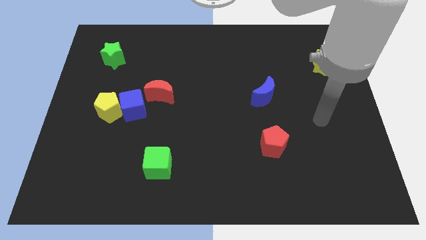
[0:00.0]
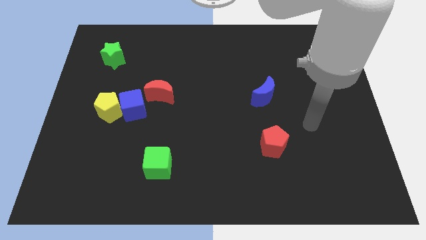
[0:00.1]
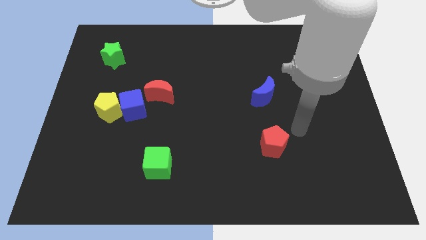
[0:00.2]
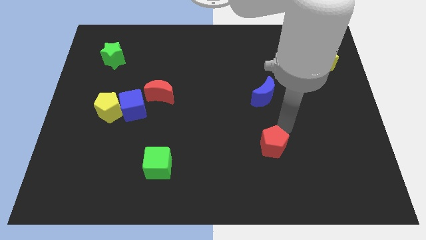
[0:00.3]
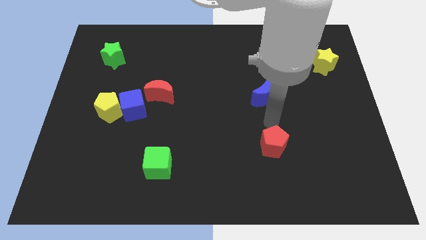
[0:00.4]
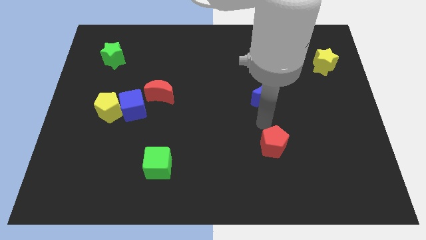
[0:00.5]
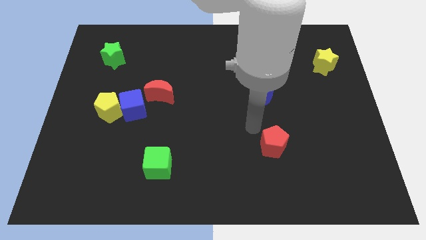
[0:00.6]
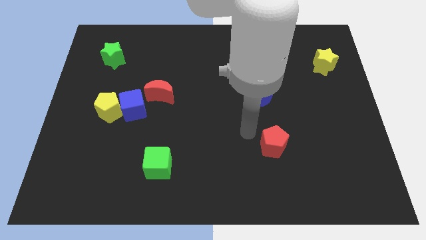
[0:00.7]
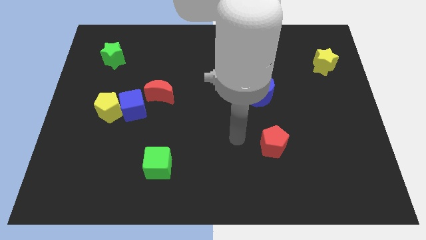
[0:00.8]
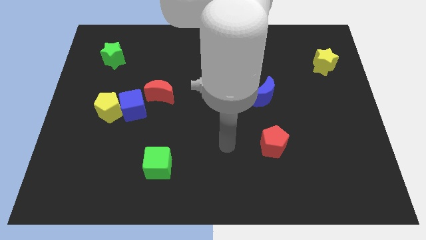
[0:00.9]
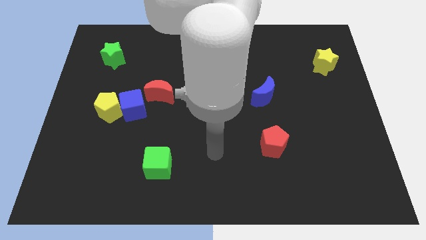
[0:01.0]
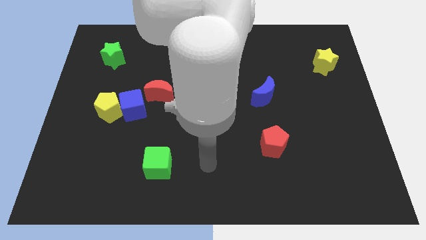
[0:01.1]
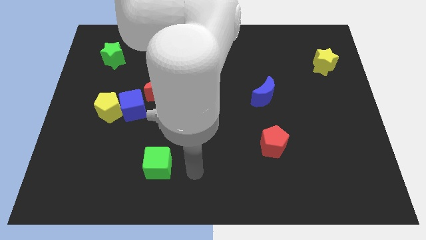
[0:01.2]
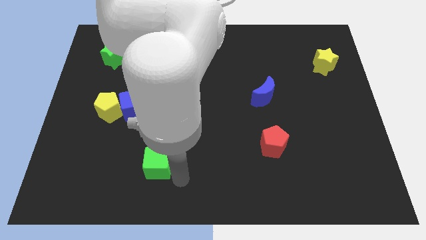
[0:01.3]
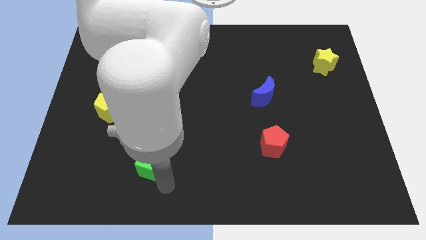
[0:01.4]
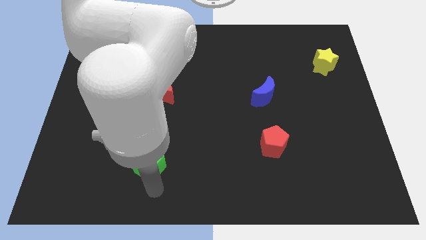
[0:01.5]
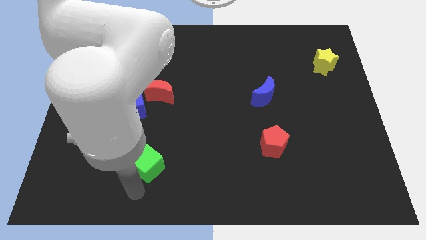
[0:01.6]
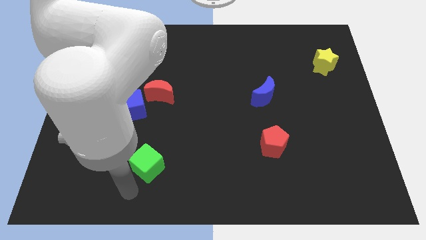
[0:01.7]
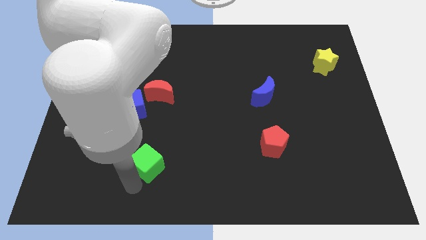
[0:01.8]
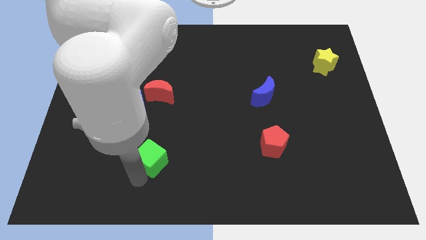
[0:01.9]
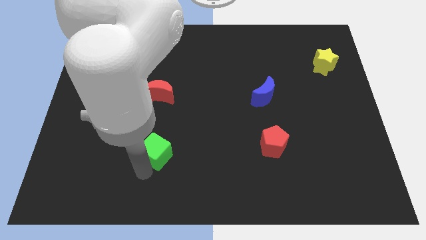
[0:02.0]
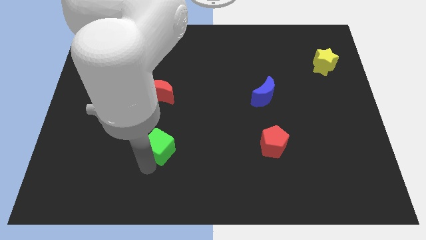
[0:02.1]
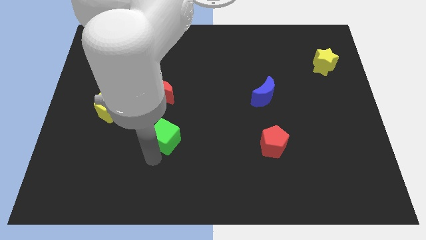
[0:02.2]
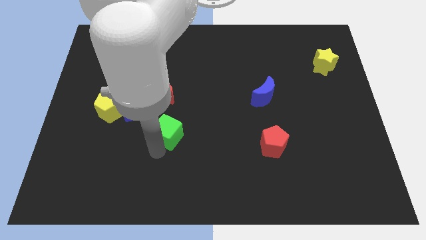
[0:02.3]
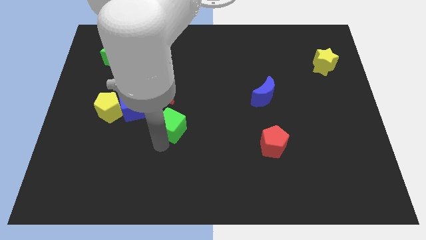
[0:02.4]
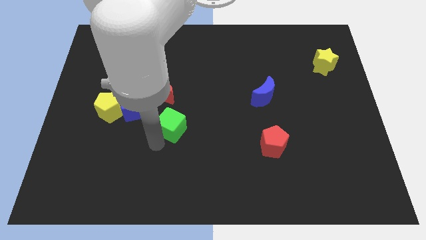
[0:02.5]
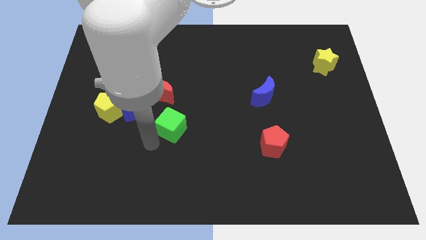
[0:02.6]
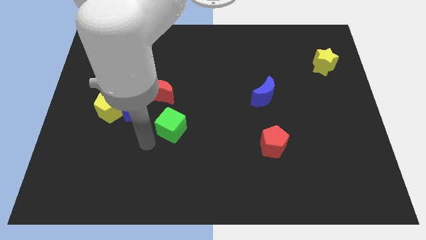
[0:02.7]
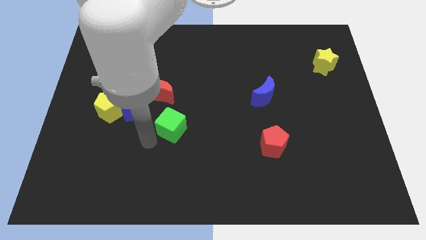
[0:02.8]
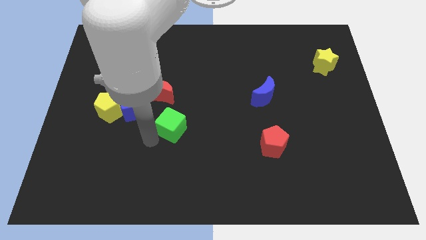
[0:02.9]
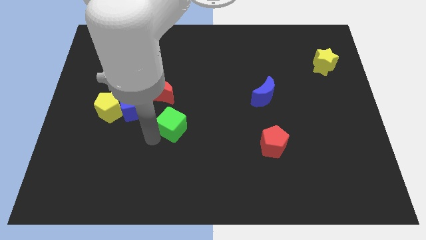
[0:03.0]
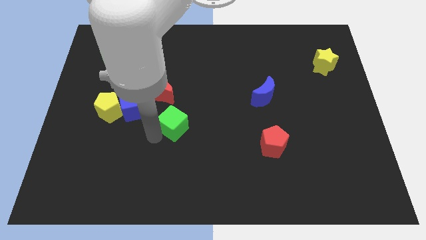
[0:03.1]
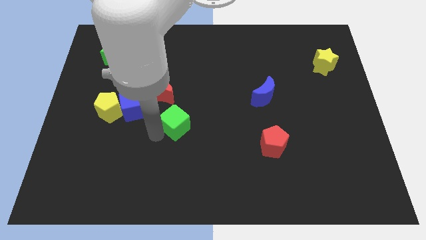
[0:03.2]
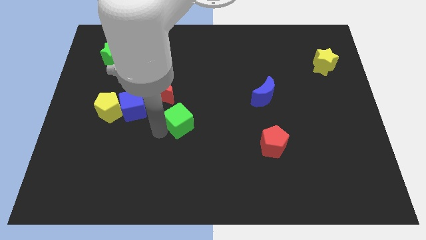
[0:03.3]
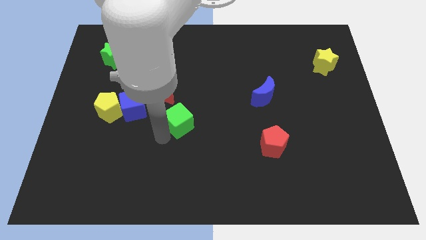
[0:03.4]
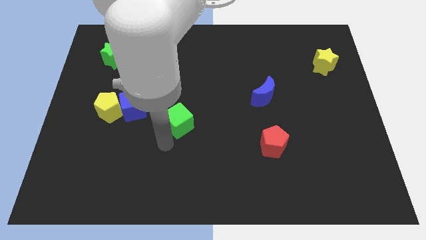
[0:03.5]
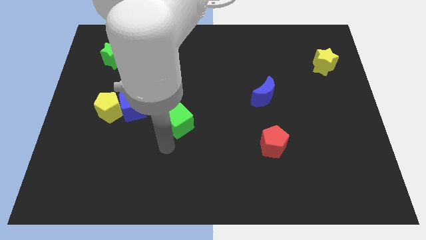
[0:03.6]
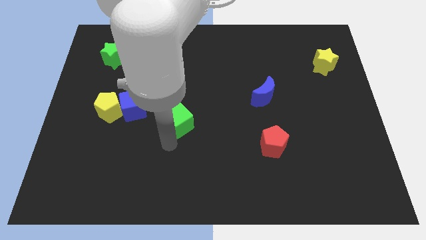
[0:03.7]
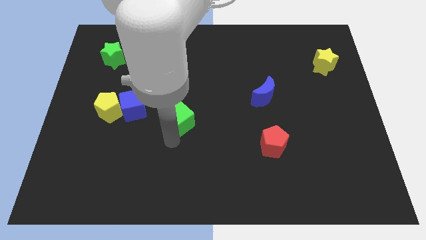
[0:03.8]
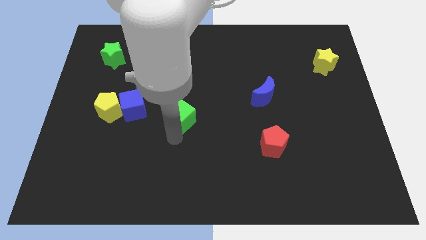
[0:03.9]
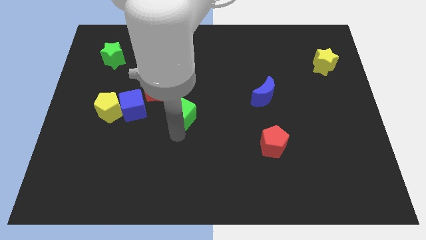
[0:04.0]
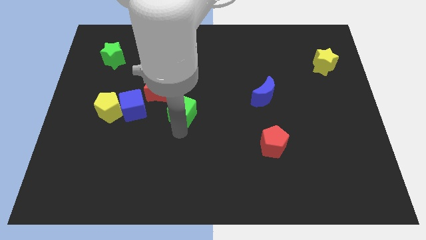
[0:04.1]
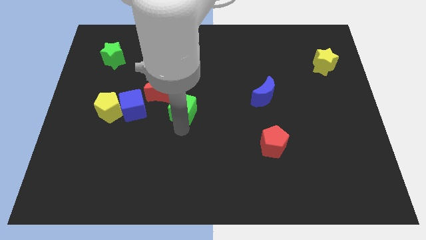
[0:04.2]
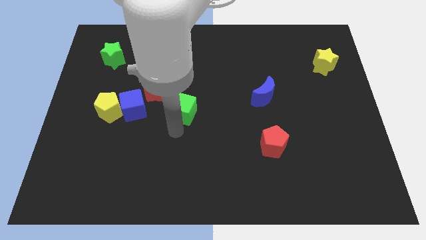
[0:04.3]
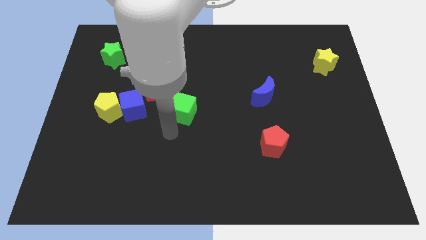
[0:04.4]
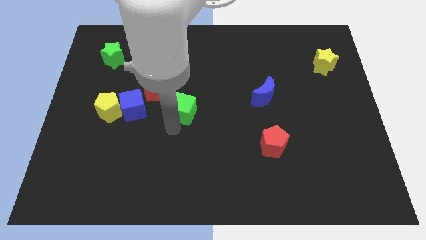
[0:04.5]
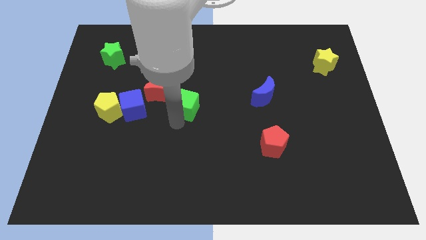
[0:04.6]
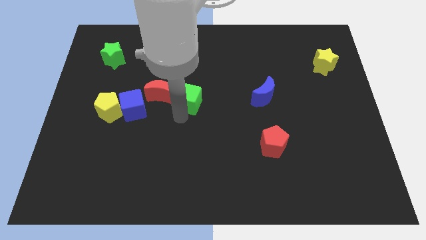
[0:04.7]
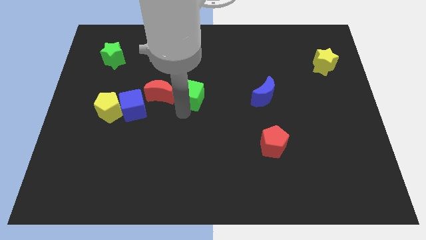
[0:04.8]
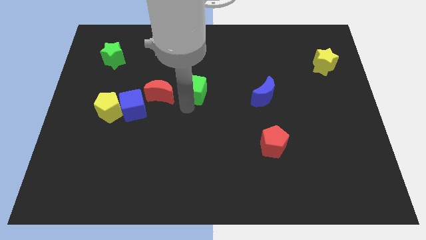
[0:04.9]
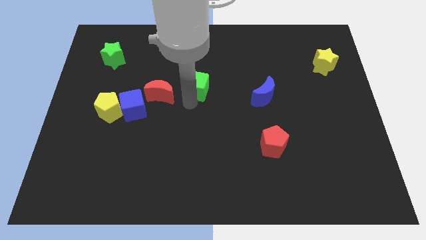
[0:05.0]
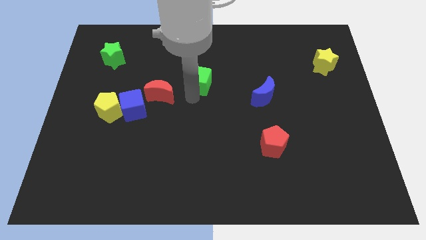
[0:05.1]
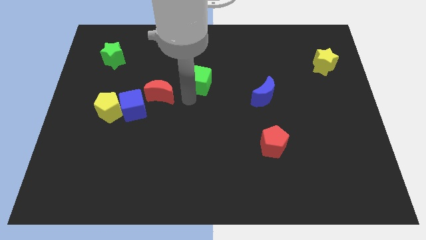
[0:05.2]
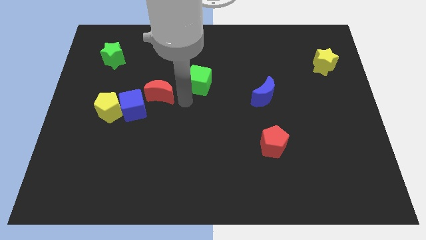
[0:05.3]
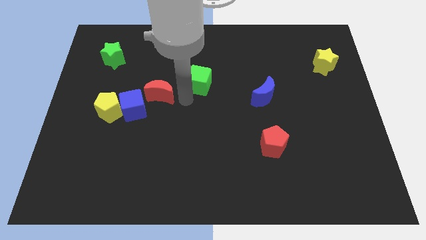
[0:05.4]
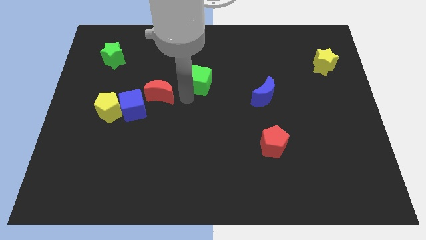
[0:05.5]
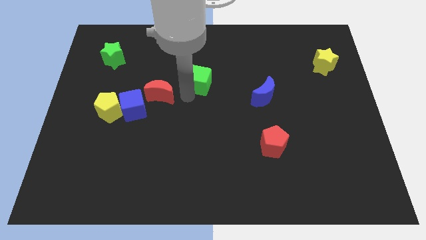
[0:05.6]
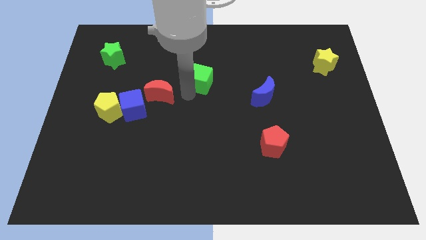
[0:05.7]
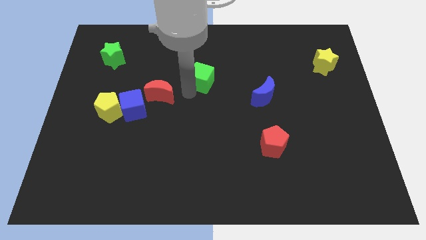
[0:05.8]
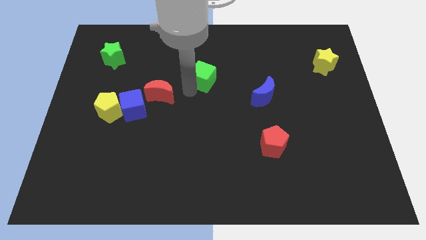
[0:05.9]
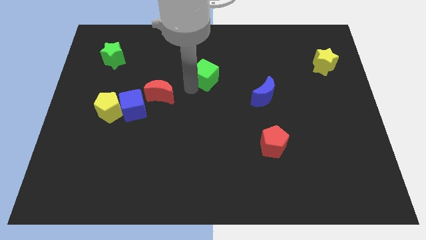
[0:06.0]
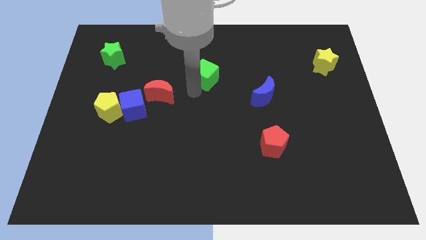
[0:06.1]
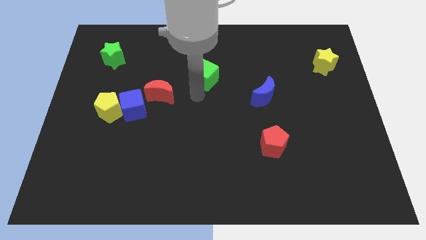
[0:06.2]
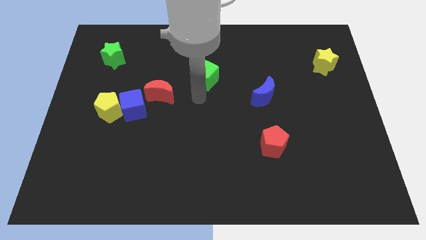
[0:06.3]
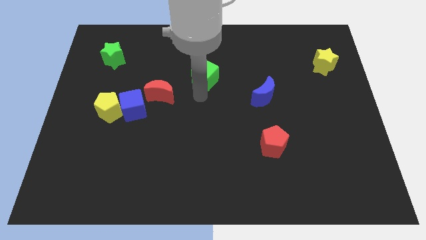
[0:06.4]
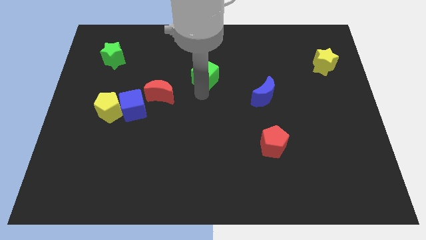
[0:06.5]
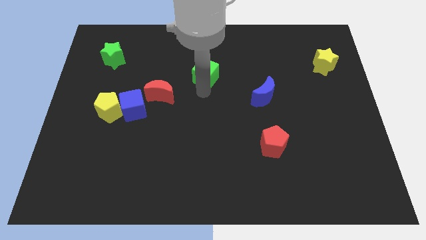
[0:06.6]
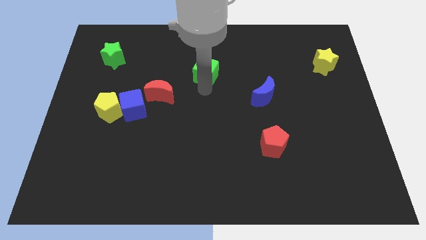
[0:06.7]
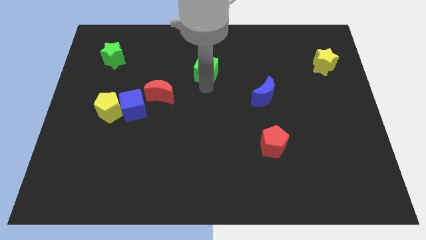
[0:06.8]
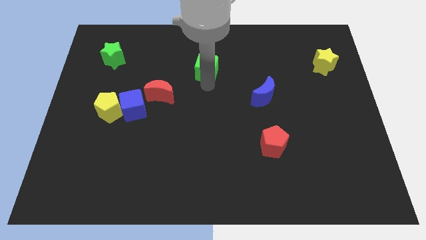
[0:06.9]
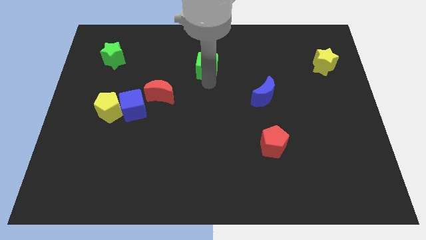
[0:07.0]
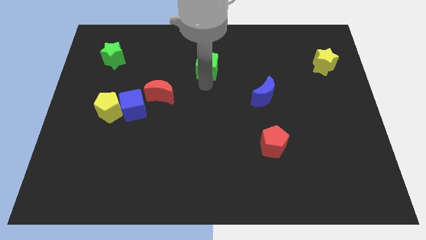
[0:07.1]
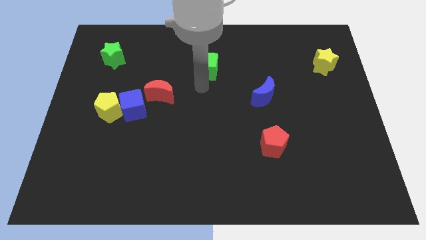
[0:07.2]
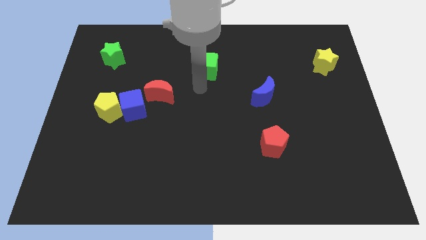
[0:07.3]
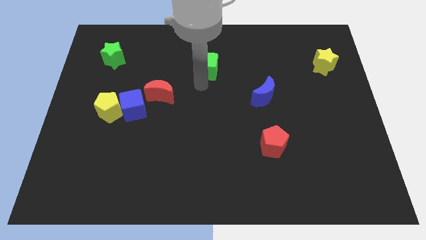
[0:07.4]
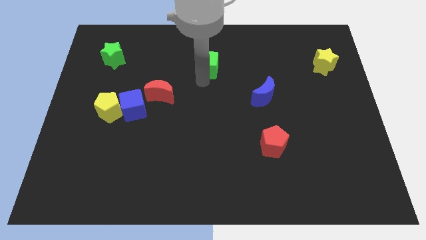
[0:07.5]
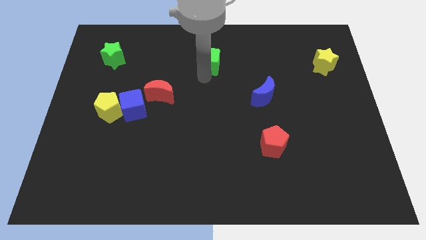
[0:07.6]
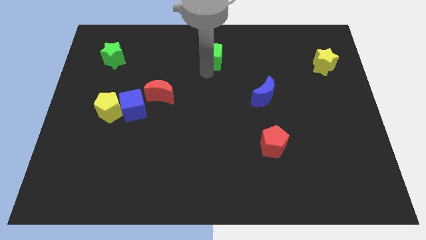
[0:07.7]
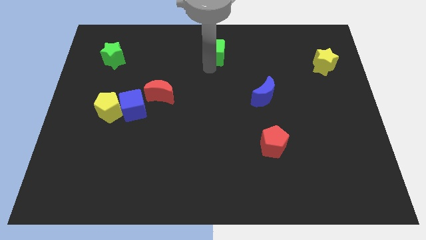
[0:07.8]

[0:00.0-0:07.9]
move the green cube to the top side
